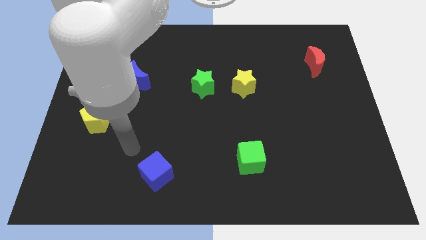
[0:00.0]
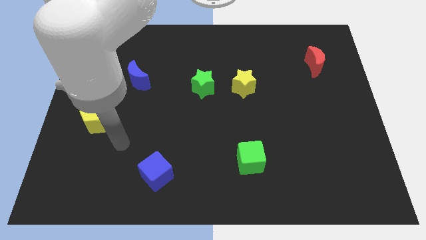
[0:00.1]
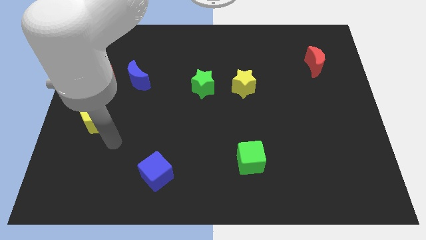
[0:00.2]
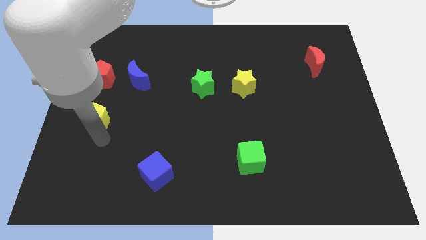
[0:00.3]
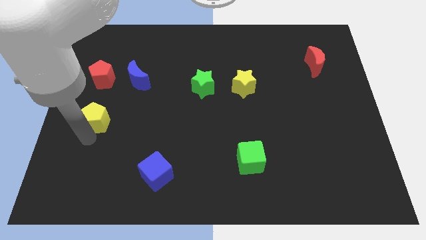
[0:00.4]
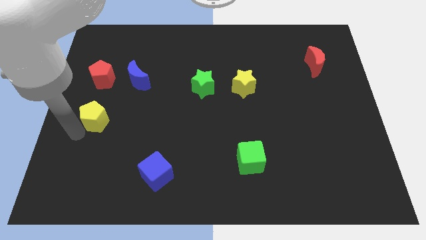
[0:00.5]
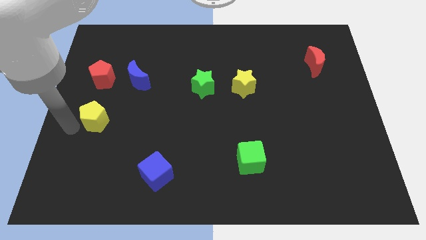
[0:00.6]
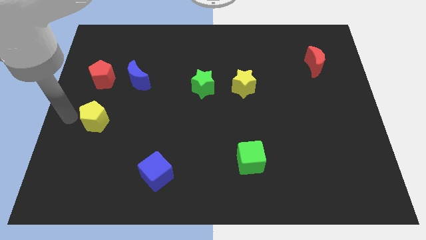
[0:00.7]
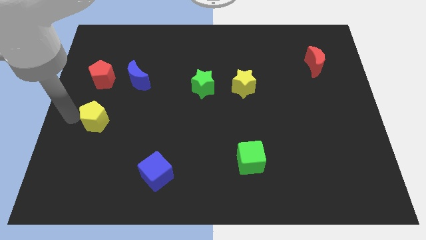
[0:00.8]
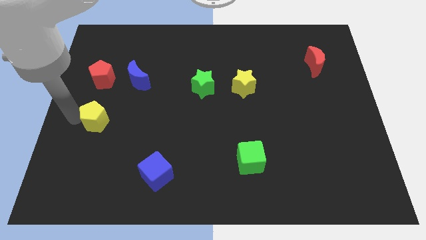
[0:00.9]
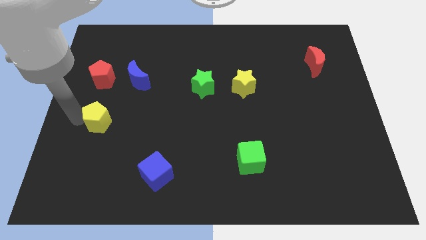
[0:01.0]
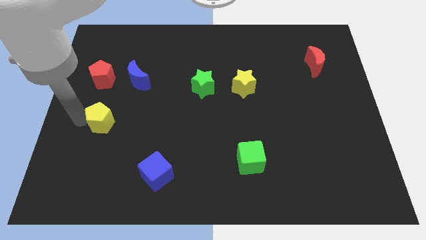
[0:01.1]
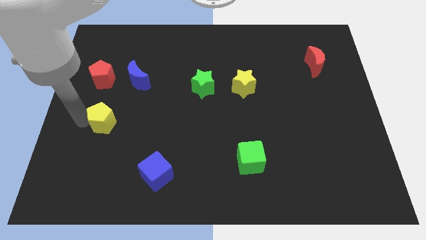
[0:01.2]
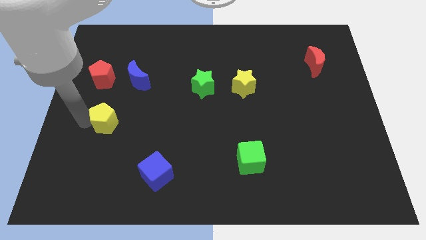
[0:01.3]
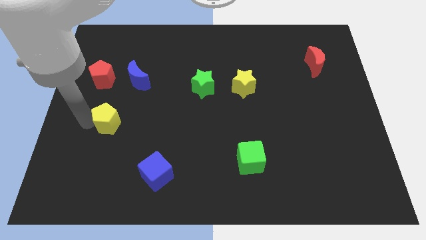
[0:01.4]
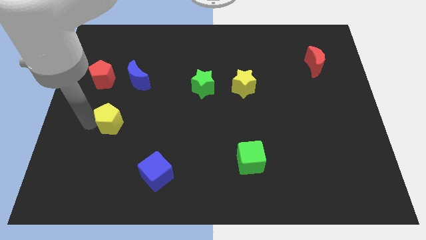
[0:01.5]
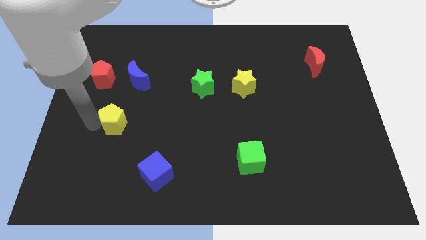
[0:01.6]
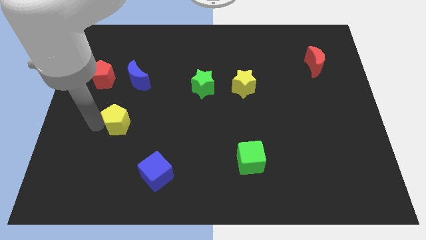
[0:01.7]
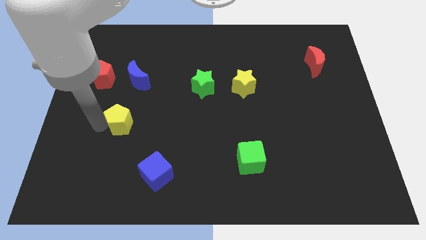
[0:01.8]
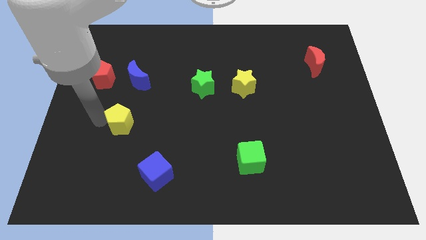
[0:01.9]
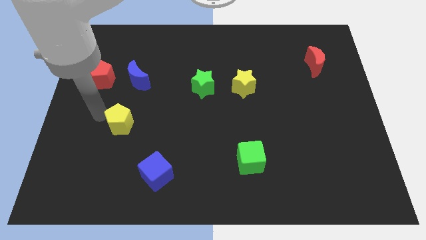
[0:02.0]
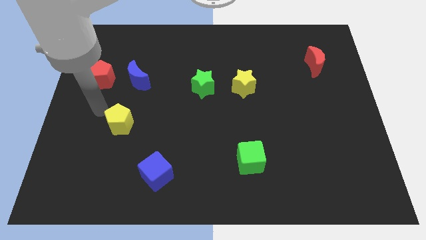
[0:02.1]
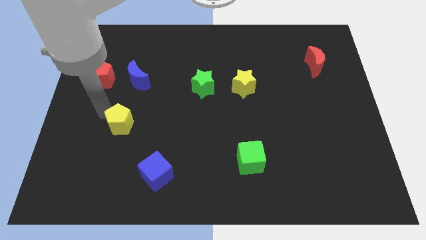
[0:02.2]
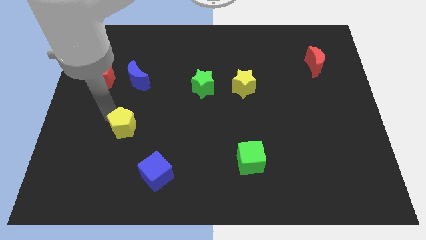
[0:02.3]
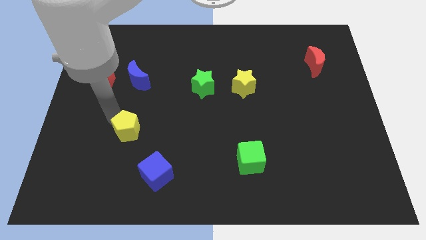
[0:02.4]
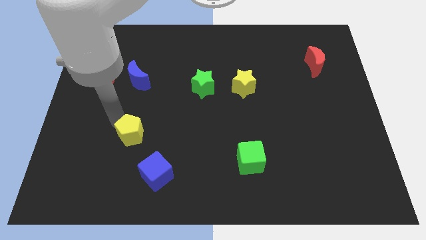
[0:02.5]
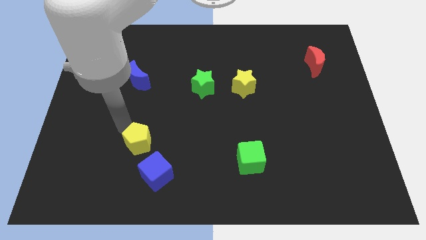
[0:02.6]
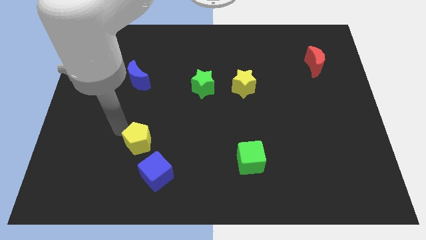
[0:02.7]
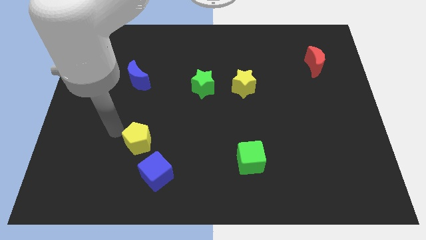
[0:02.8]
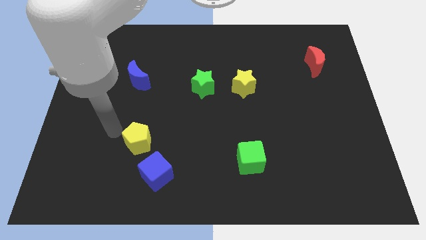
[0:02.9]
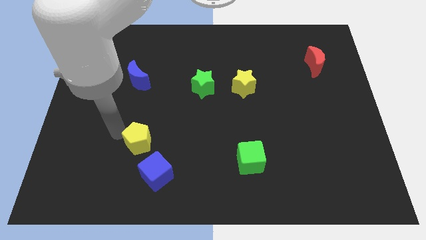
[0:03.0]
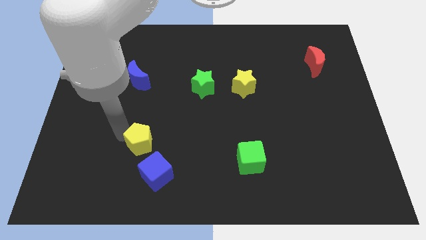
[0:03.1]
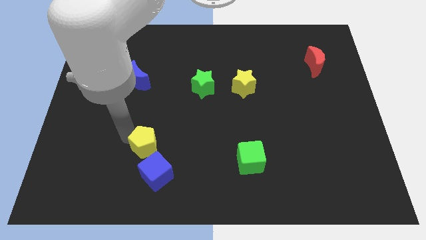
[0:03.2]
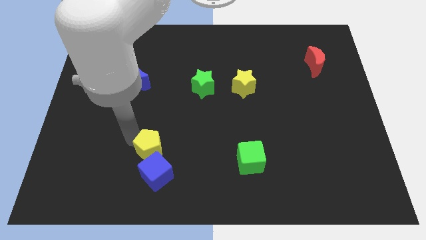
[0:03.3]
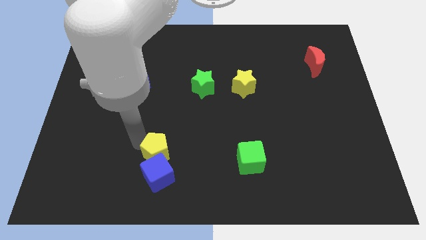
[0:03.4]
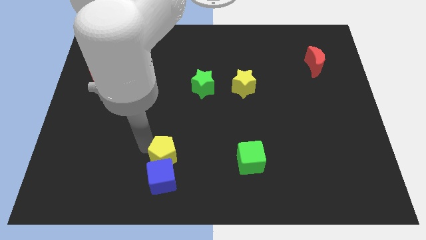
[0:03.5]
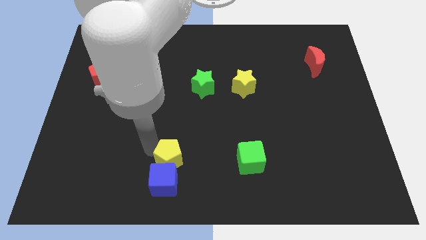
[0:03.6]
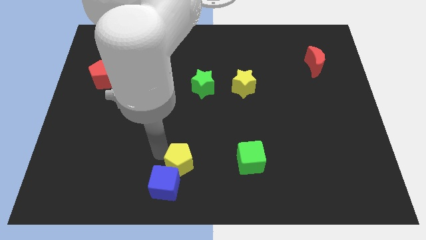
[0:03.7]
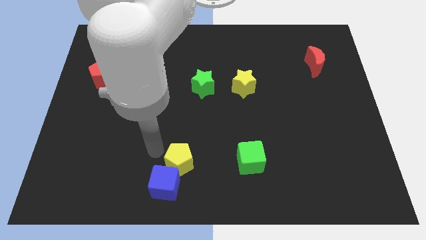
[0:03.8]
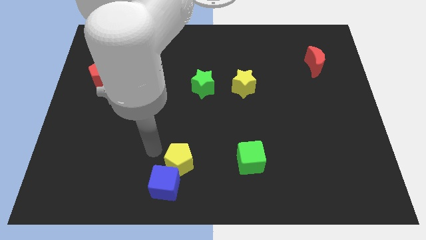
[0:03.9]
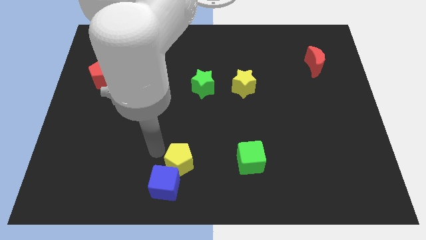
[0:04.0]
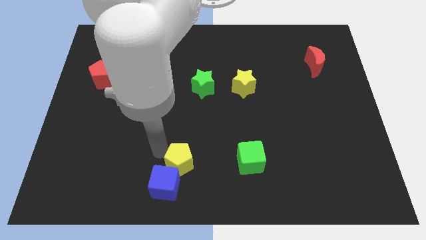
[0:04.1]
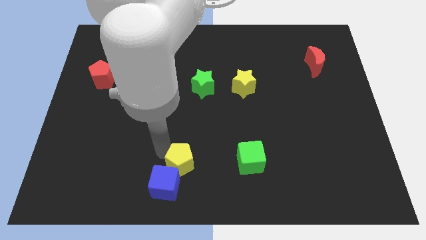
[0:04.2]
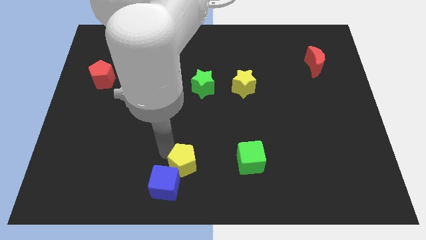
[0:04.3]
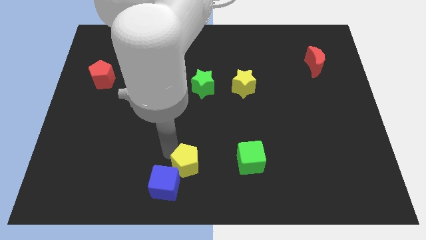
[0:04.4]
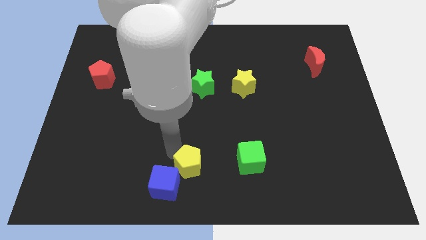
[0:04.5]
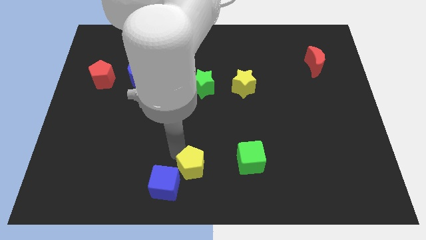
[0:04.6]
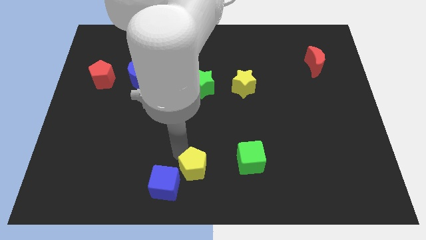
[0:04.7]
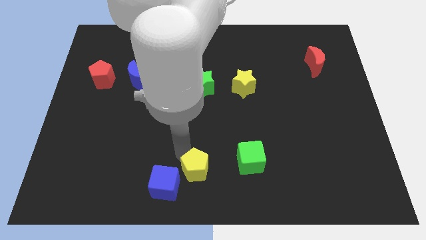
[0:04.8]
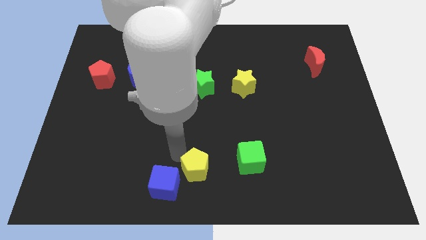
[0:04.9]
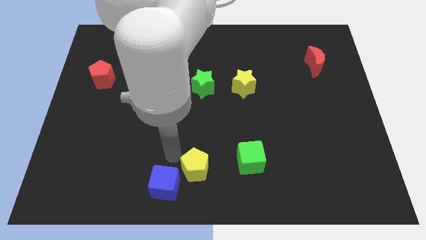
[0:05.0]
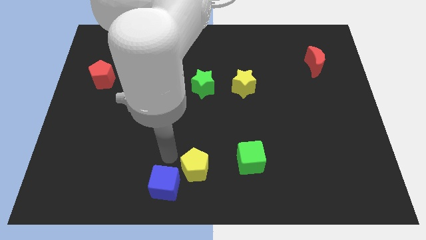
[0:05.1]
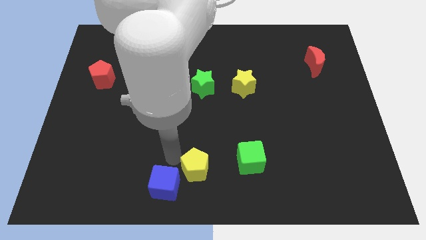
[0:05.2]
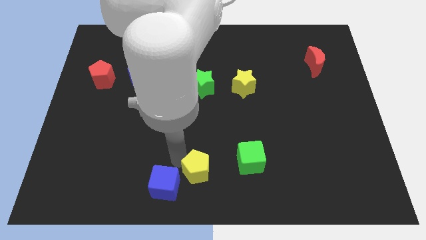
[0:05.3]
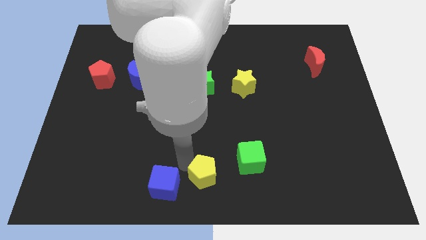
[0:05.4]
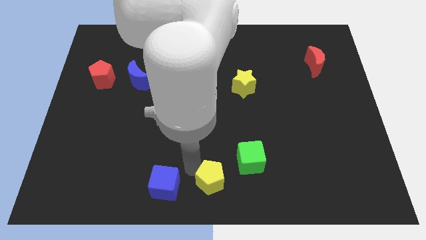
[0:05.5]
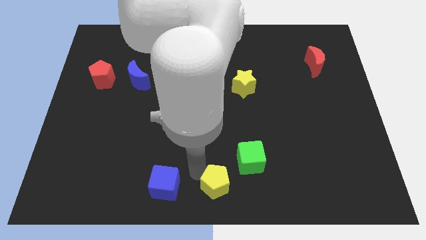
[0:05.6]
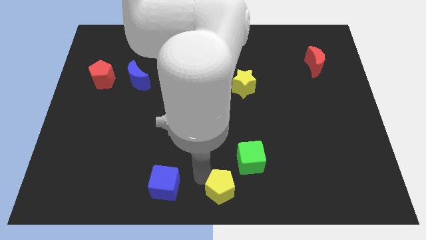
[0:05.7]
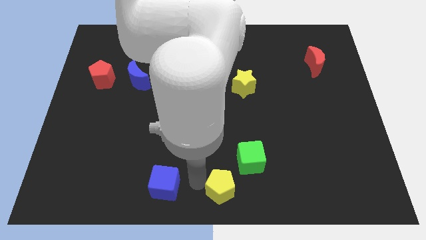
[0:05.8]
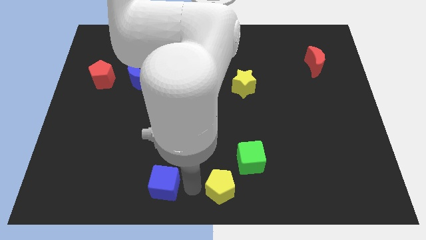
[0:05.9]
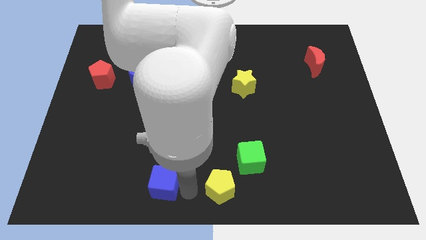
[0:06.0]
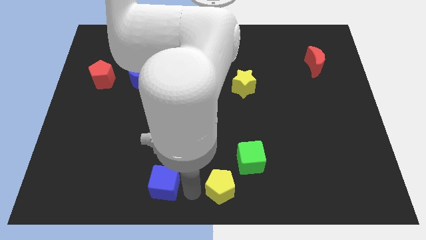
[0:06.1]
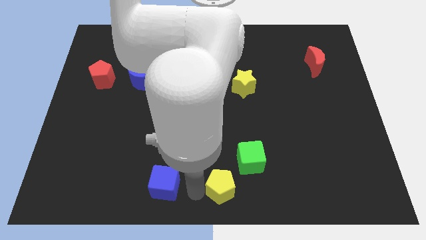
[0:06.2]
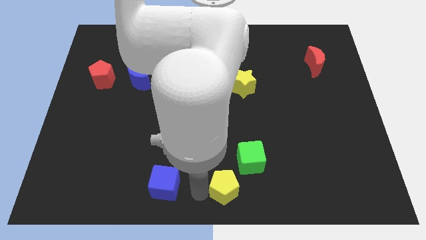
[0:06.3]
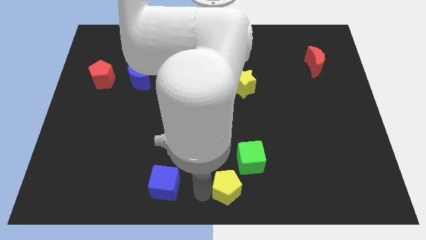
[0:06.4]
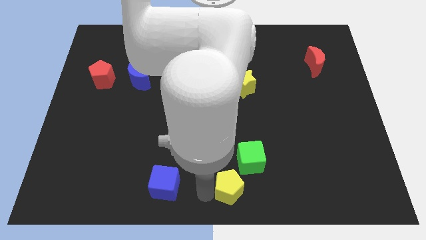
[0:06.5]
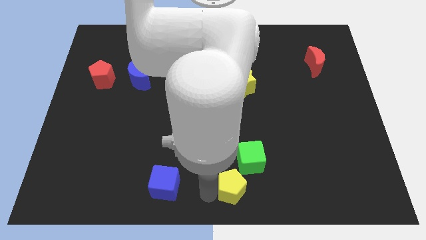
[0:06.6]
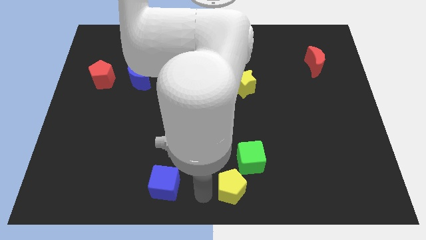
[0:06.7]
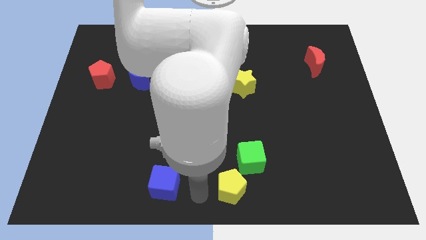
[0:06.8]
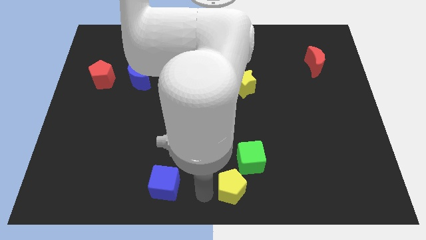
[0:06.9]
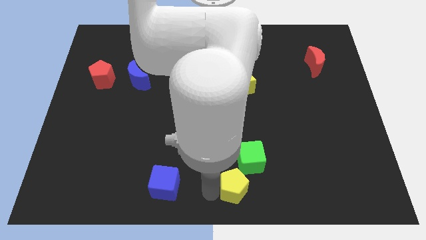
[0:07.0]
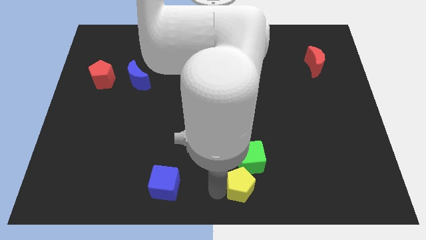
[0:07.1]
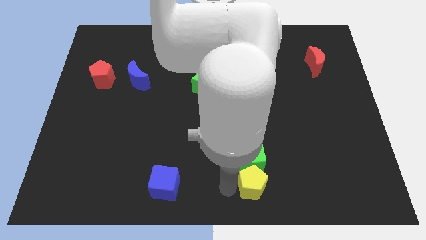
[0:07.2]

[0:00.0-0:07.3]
push the yellow pentagon diagonally down and to the right of the green cube

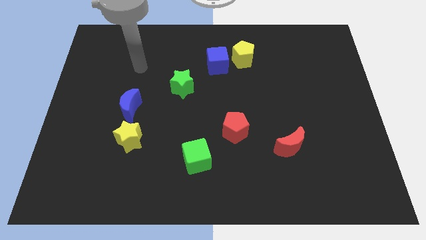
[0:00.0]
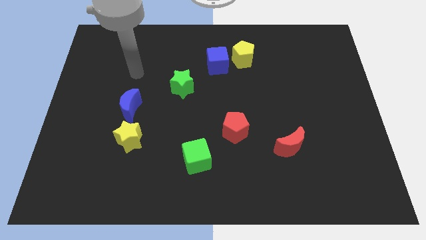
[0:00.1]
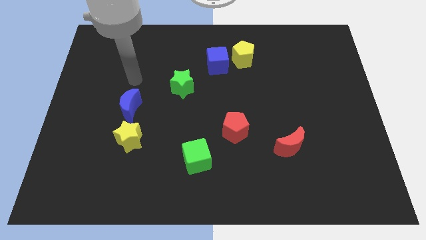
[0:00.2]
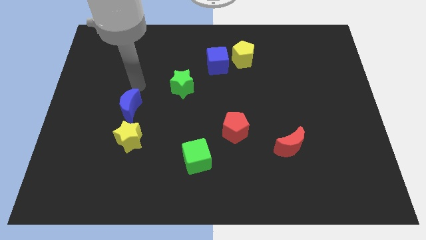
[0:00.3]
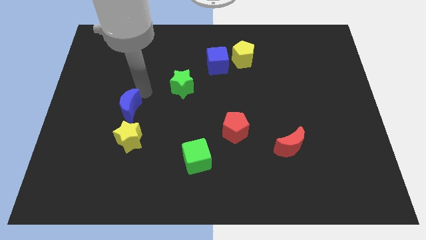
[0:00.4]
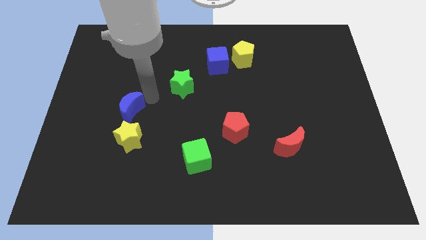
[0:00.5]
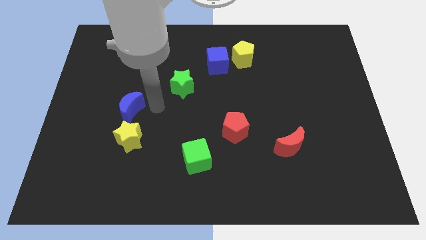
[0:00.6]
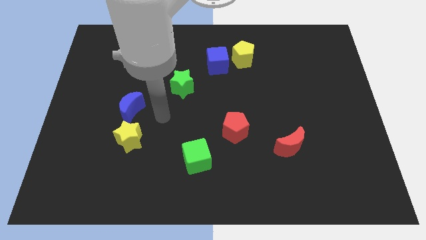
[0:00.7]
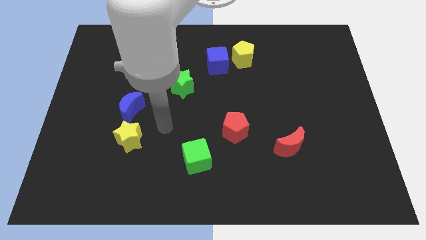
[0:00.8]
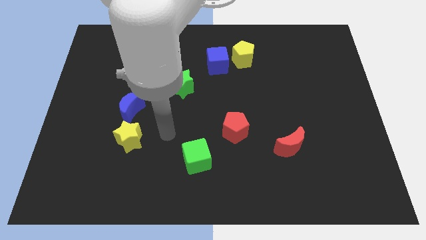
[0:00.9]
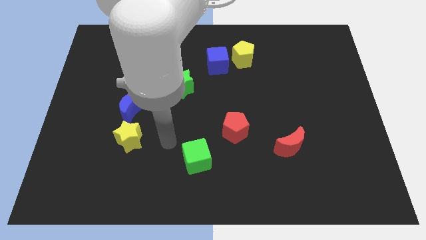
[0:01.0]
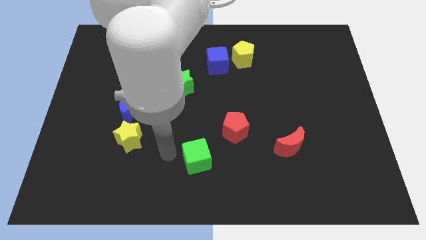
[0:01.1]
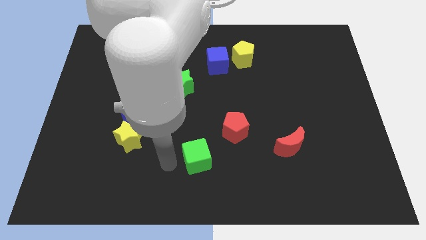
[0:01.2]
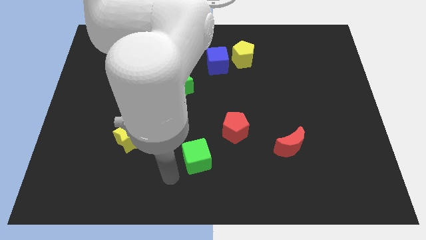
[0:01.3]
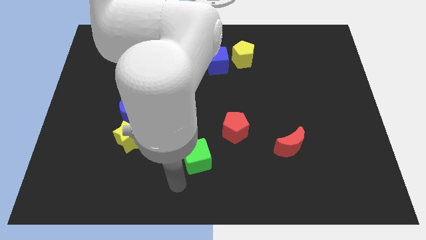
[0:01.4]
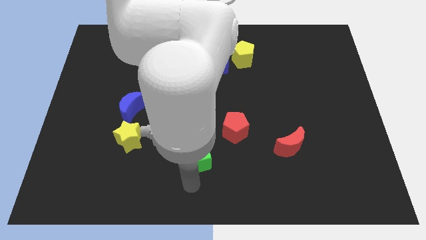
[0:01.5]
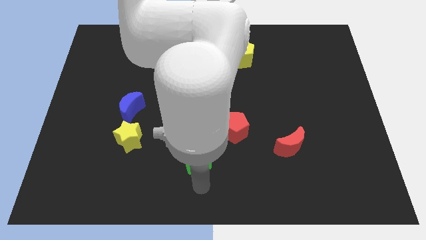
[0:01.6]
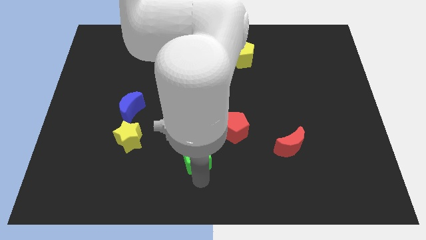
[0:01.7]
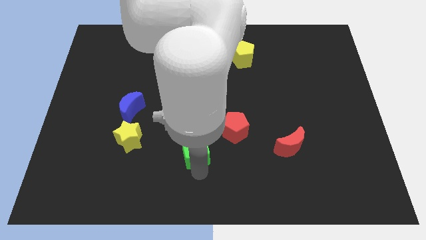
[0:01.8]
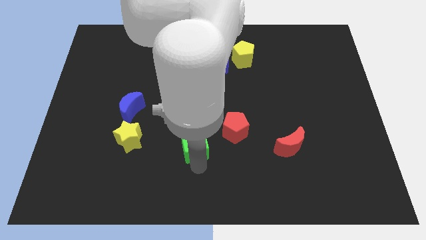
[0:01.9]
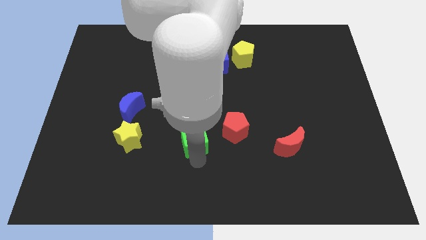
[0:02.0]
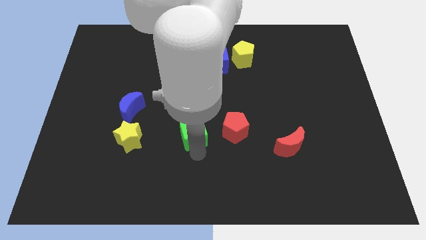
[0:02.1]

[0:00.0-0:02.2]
move the green cube to the bottom of the green star
